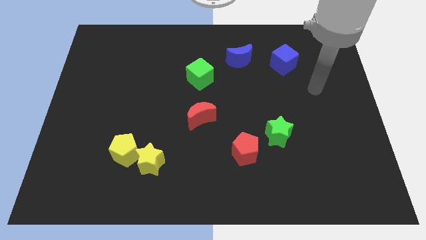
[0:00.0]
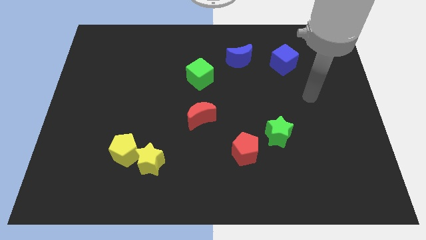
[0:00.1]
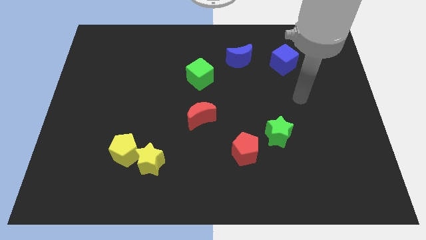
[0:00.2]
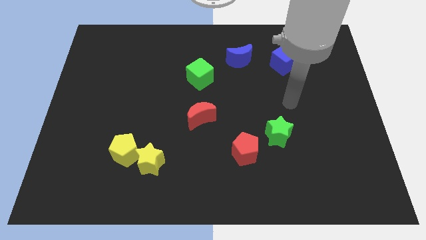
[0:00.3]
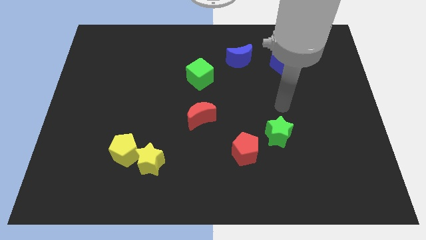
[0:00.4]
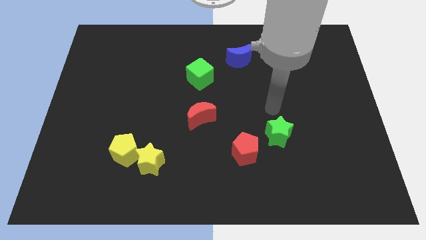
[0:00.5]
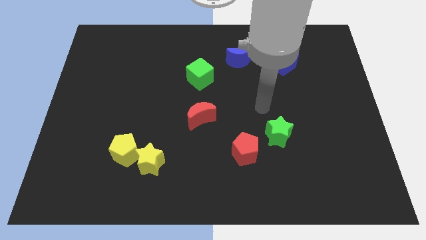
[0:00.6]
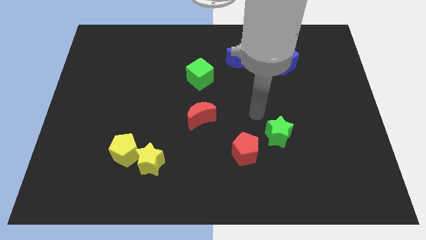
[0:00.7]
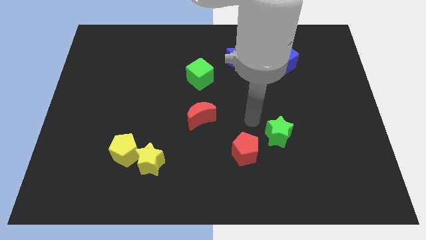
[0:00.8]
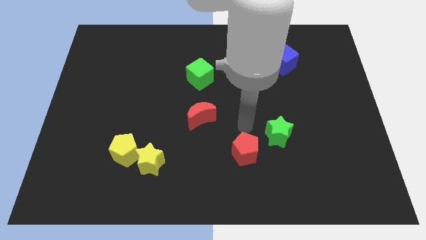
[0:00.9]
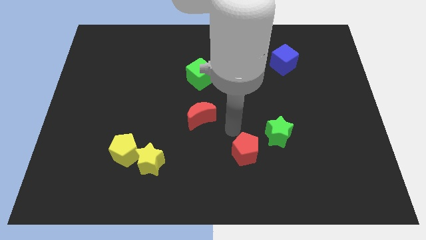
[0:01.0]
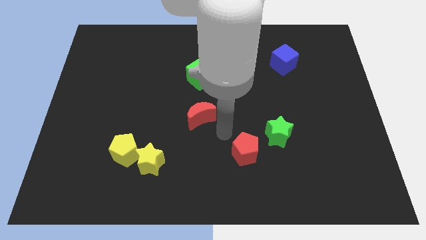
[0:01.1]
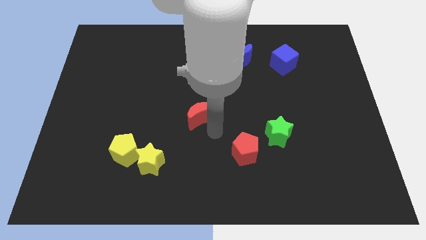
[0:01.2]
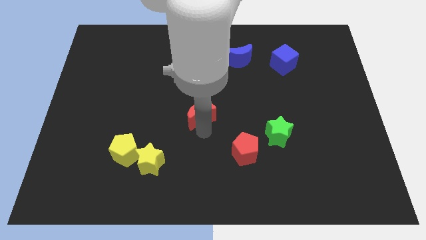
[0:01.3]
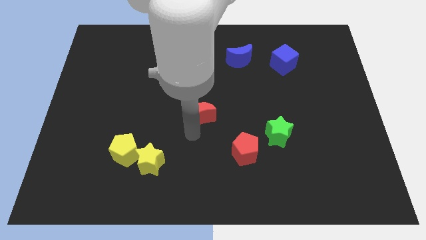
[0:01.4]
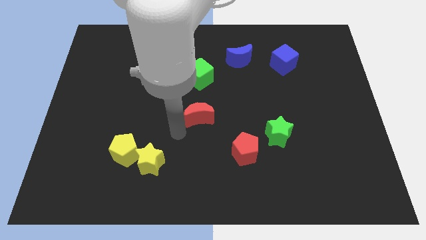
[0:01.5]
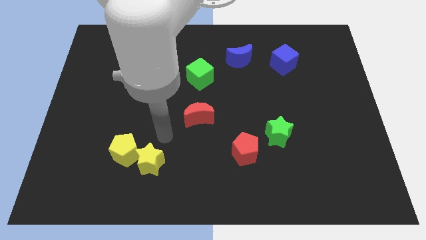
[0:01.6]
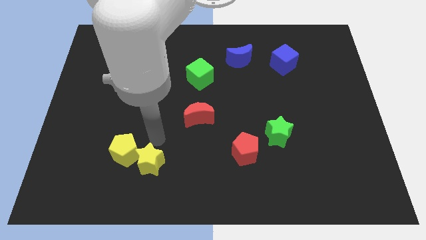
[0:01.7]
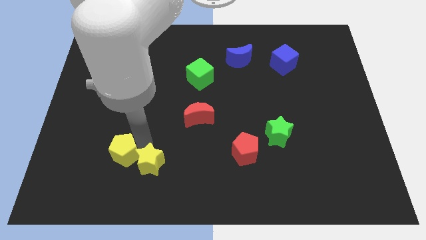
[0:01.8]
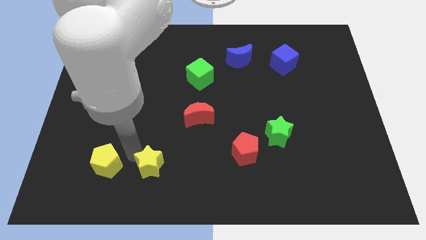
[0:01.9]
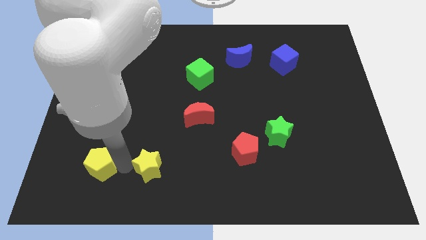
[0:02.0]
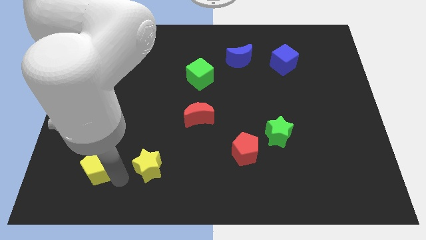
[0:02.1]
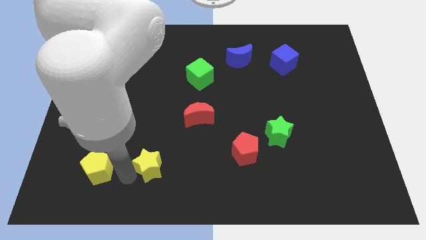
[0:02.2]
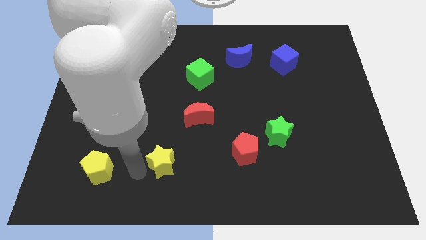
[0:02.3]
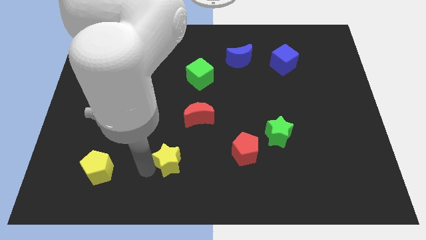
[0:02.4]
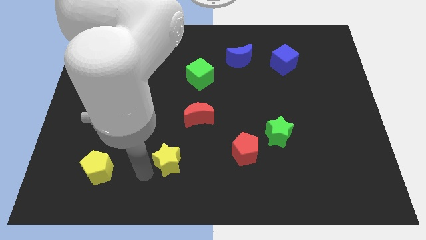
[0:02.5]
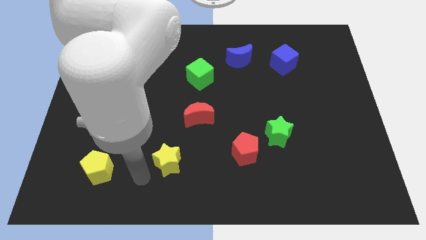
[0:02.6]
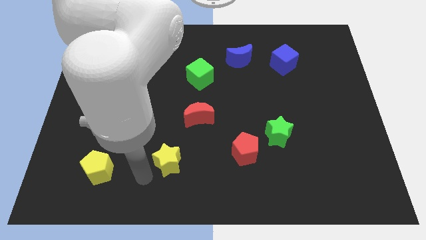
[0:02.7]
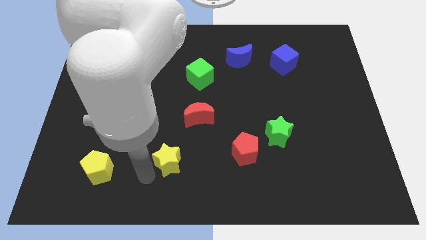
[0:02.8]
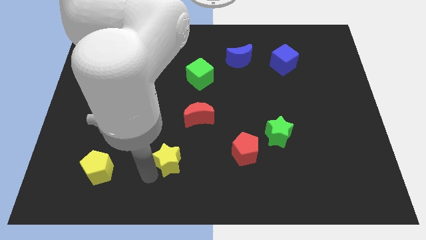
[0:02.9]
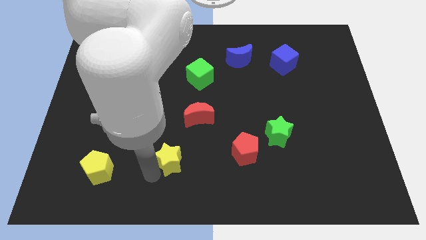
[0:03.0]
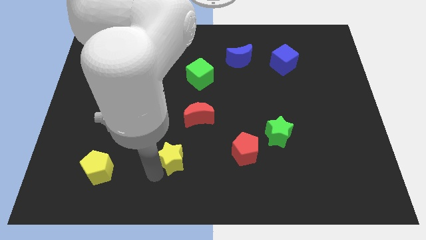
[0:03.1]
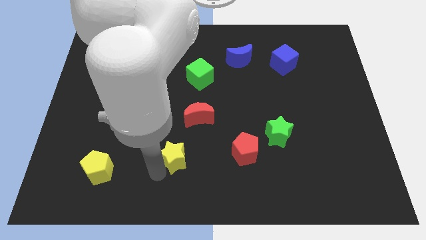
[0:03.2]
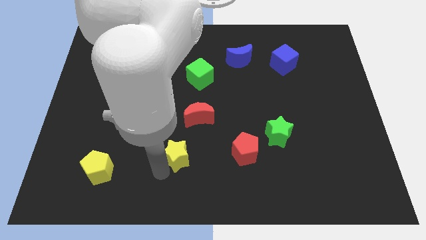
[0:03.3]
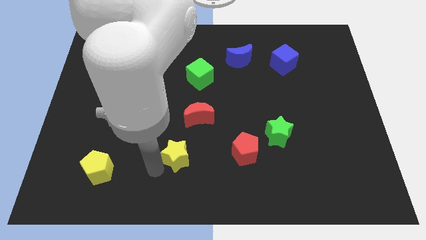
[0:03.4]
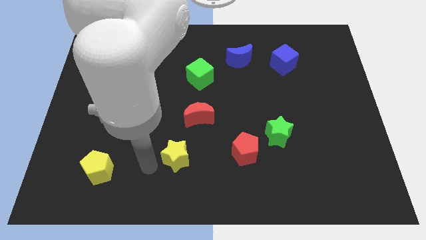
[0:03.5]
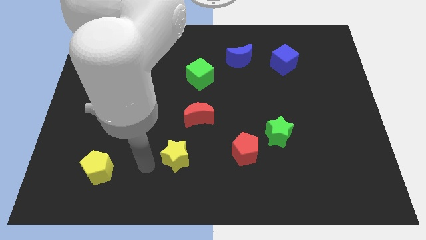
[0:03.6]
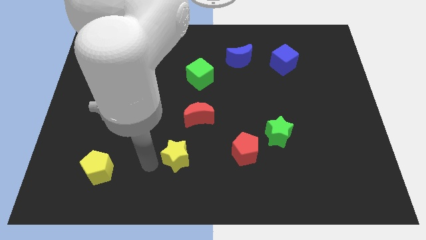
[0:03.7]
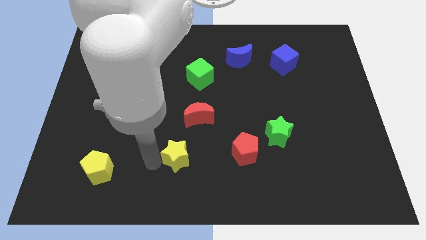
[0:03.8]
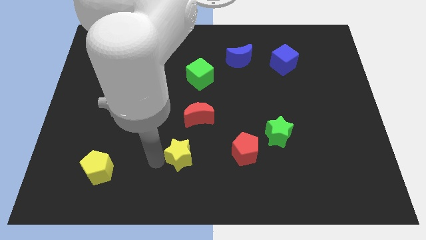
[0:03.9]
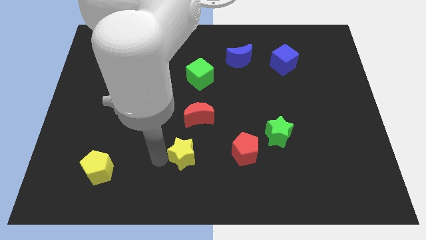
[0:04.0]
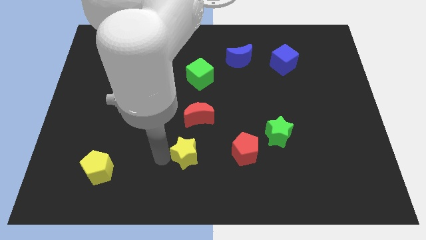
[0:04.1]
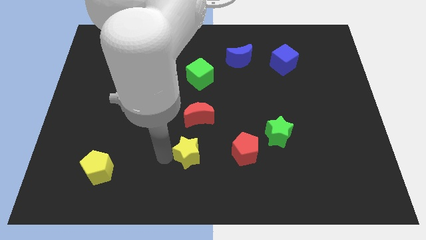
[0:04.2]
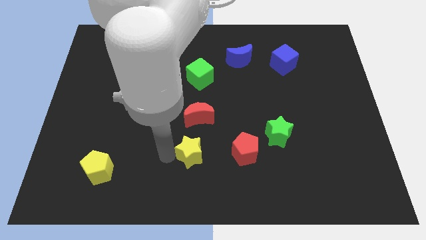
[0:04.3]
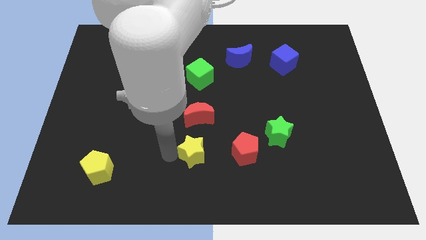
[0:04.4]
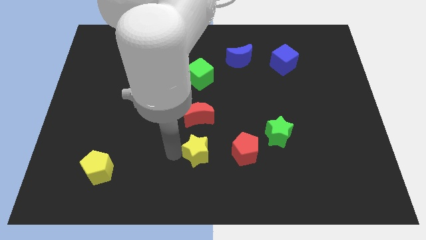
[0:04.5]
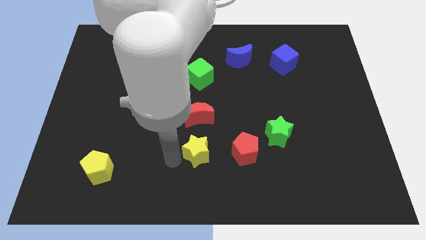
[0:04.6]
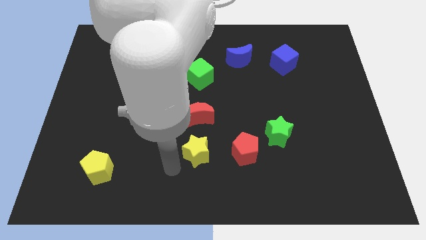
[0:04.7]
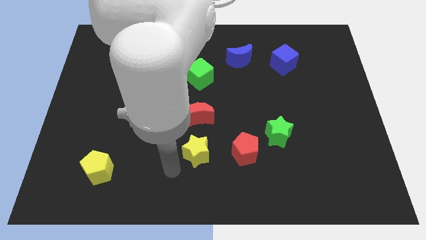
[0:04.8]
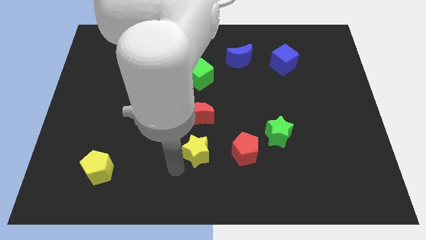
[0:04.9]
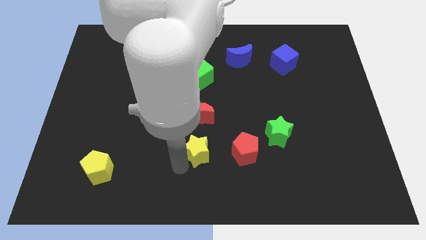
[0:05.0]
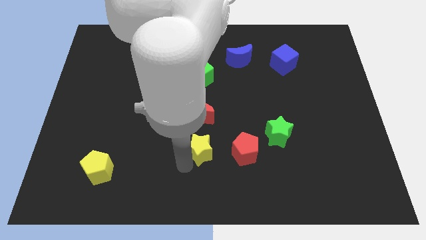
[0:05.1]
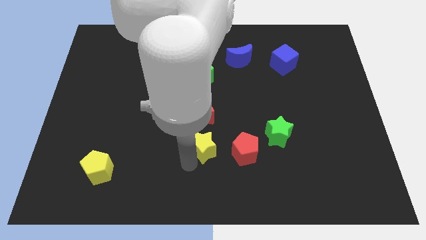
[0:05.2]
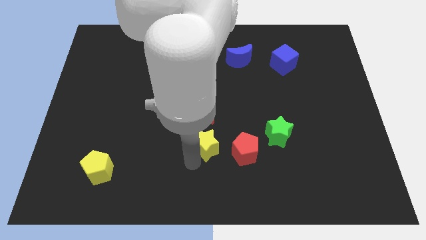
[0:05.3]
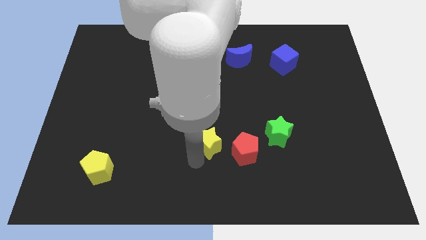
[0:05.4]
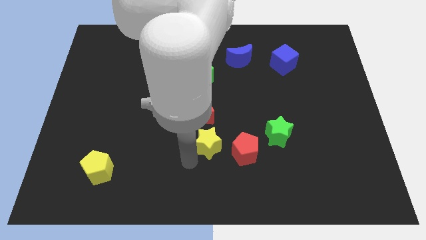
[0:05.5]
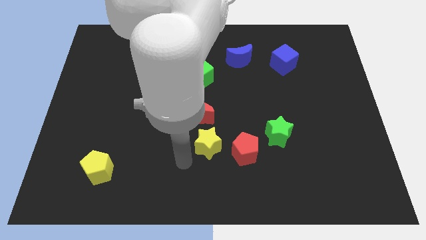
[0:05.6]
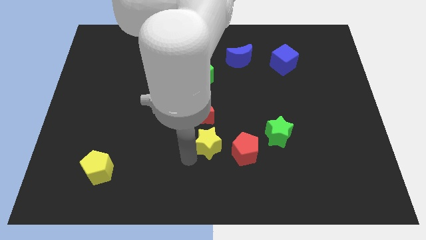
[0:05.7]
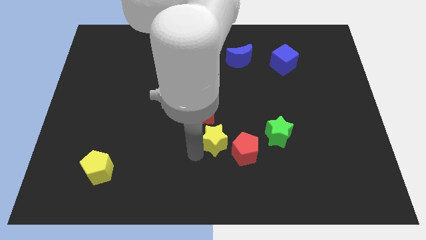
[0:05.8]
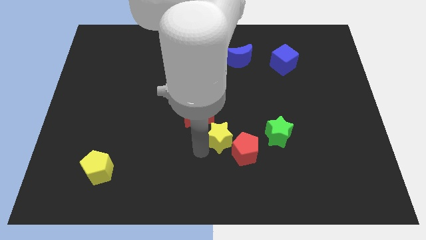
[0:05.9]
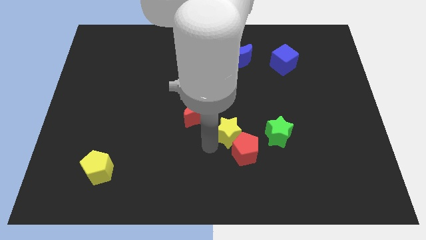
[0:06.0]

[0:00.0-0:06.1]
push the yellow star above the red pentagon

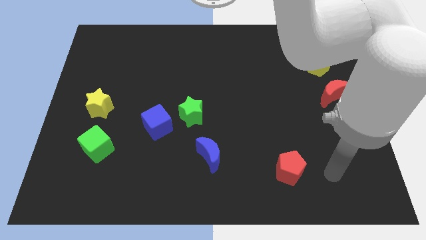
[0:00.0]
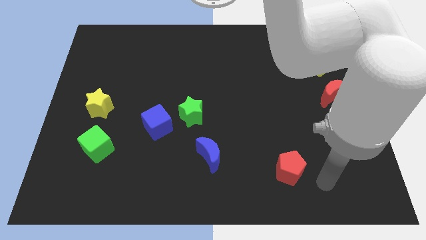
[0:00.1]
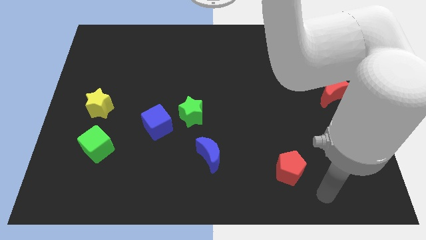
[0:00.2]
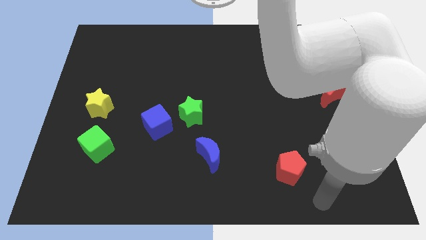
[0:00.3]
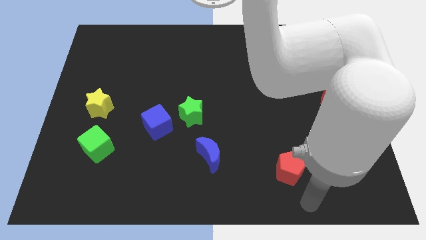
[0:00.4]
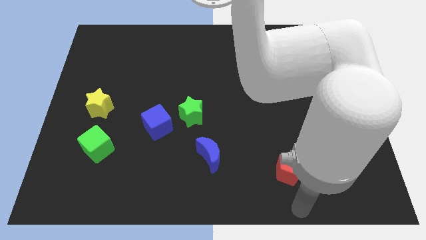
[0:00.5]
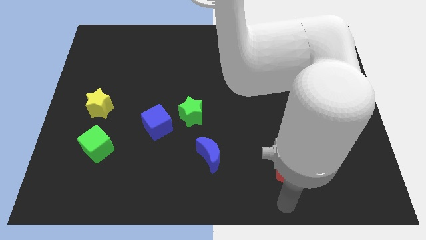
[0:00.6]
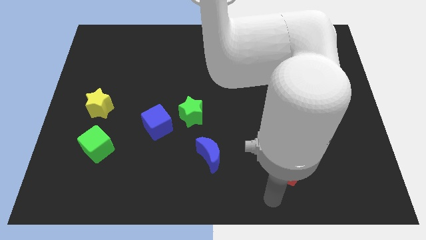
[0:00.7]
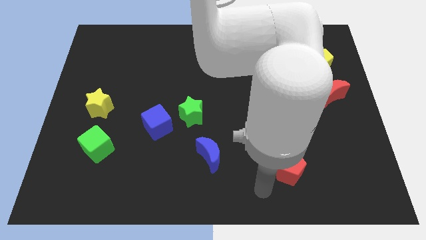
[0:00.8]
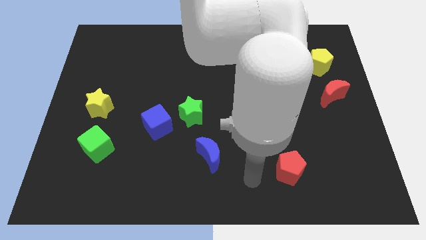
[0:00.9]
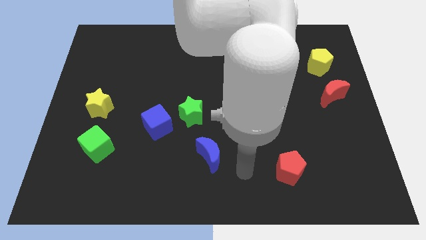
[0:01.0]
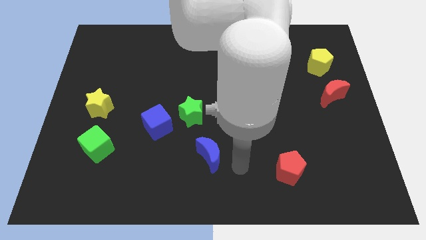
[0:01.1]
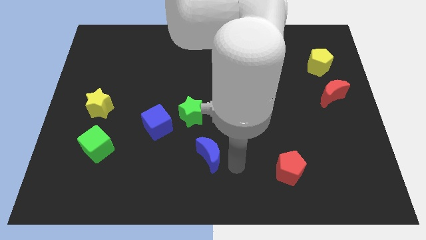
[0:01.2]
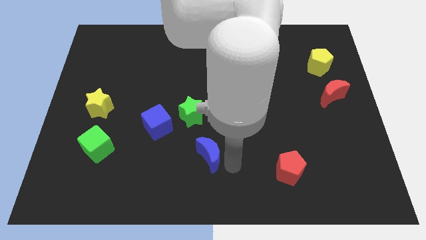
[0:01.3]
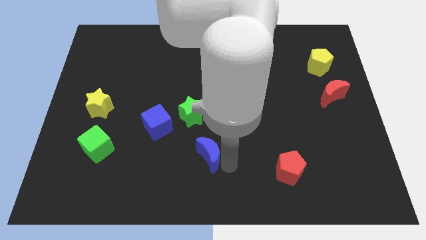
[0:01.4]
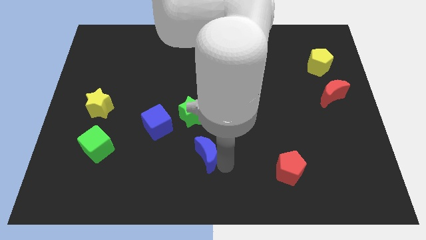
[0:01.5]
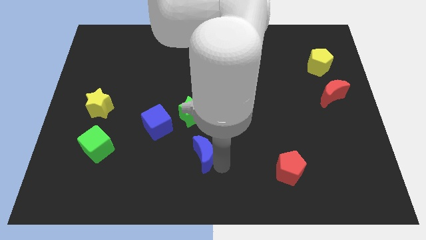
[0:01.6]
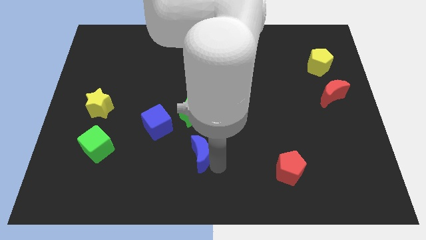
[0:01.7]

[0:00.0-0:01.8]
slide the blue moon diagonally down and to the right of the blue cube
